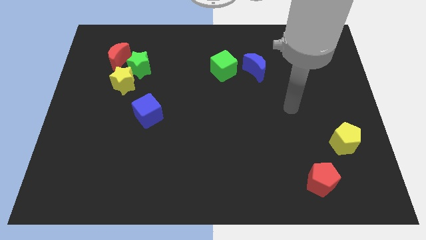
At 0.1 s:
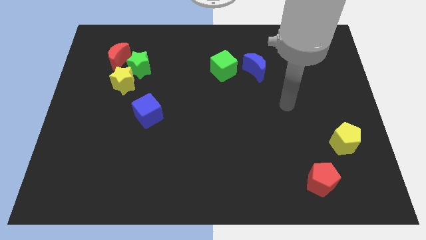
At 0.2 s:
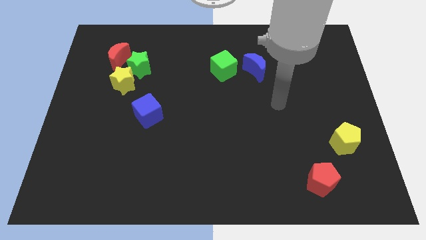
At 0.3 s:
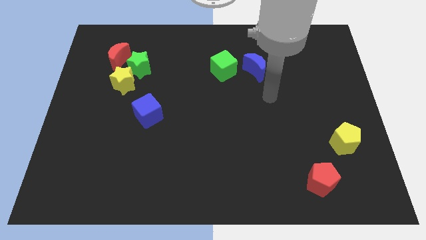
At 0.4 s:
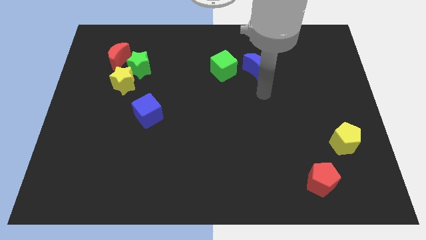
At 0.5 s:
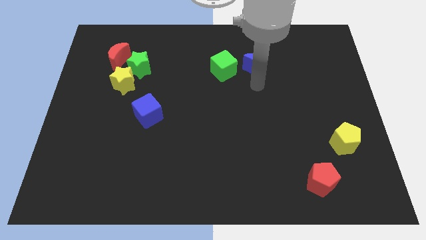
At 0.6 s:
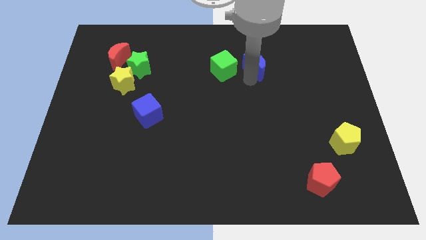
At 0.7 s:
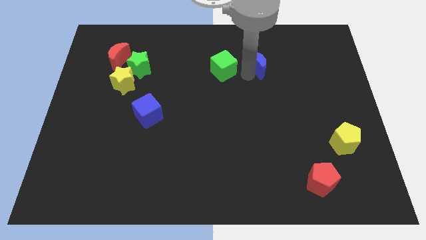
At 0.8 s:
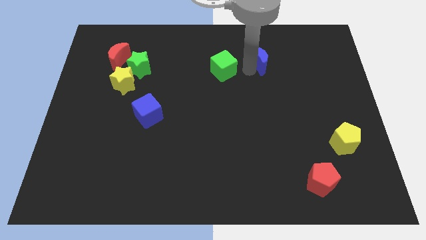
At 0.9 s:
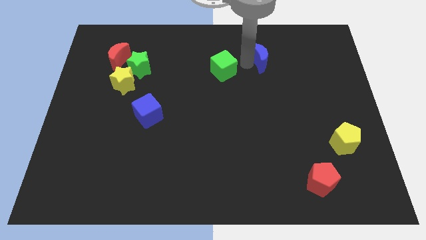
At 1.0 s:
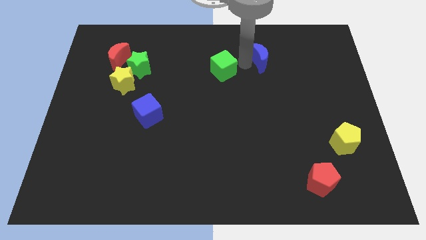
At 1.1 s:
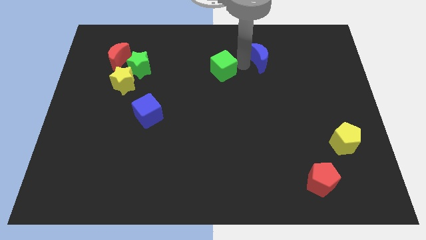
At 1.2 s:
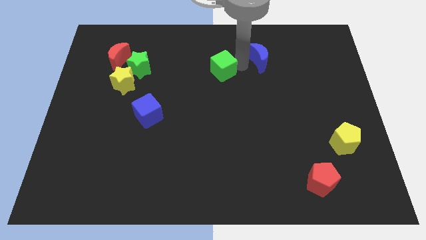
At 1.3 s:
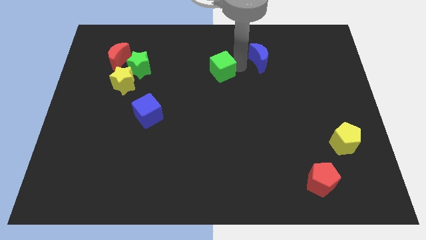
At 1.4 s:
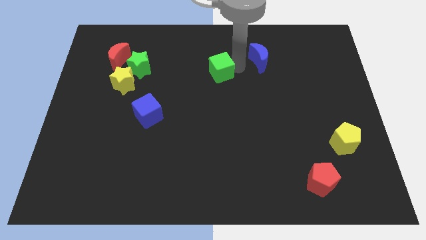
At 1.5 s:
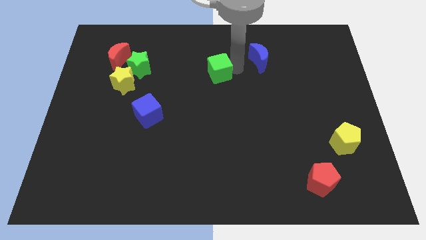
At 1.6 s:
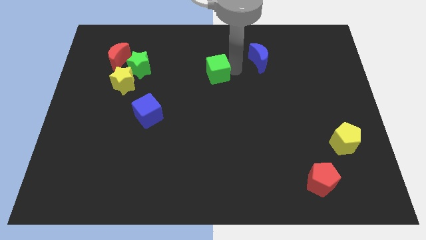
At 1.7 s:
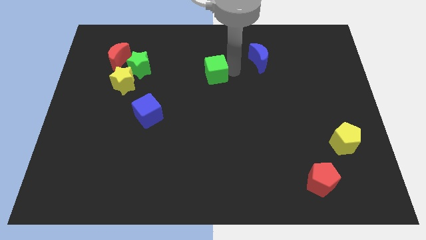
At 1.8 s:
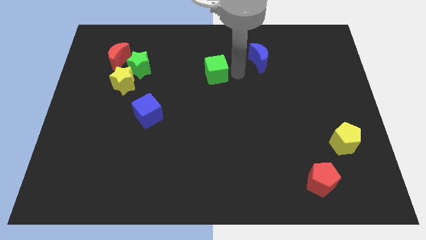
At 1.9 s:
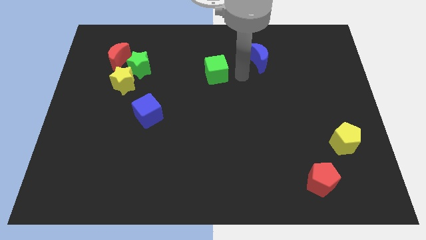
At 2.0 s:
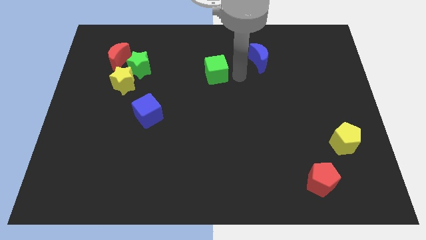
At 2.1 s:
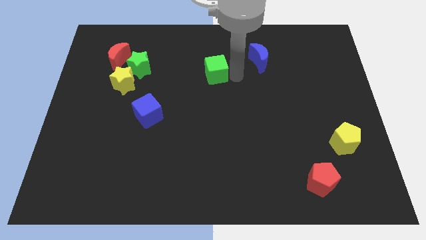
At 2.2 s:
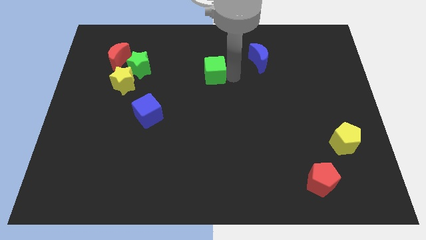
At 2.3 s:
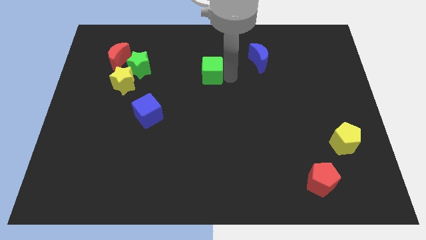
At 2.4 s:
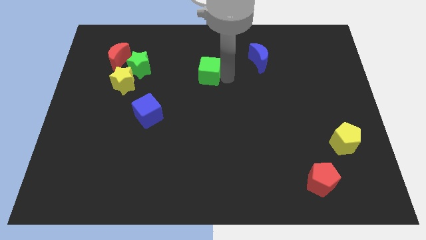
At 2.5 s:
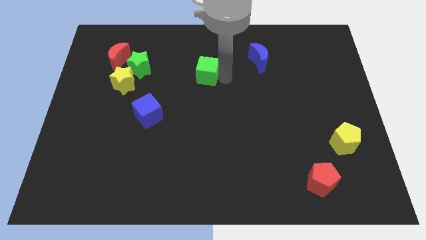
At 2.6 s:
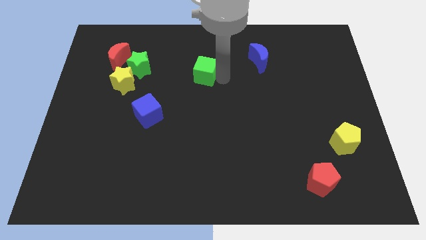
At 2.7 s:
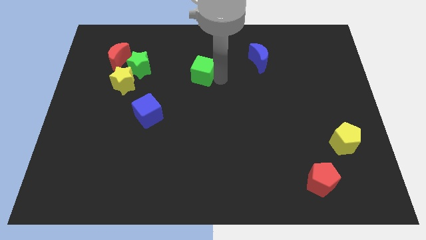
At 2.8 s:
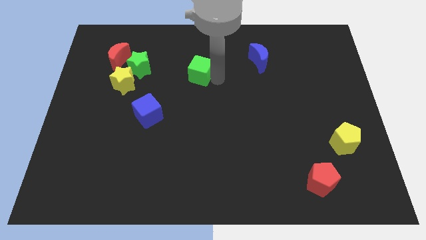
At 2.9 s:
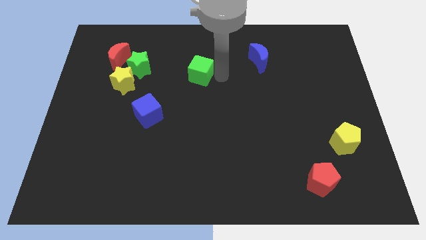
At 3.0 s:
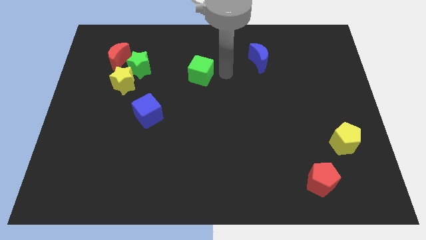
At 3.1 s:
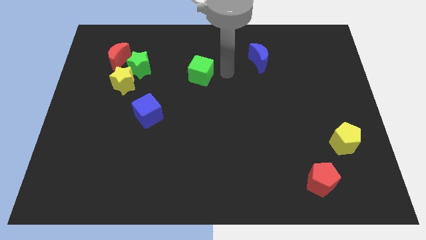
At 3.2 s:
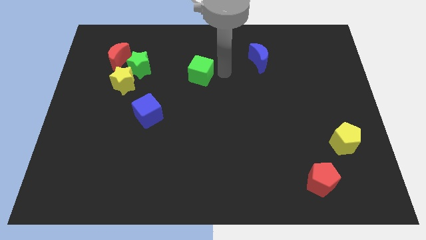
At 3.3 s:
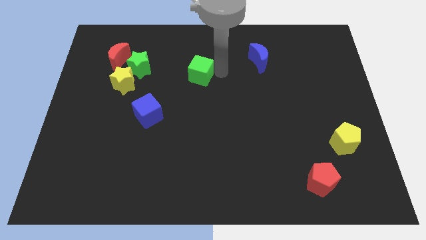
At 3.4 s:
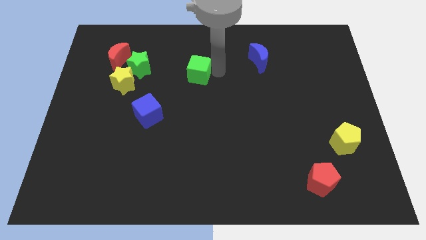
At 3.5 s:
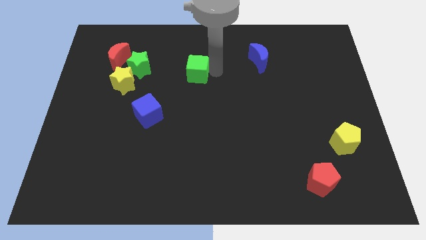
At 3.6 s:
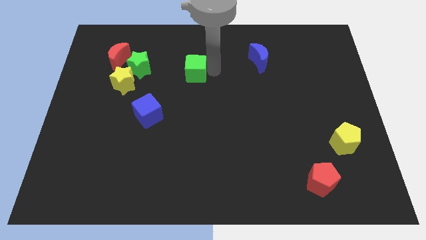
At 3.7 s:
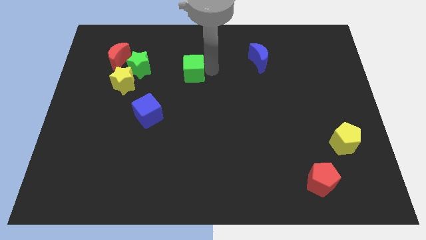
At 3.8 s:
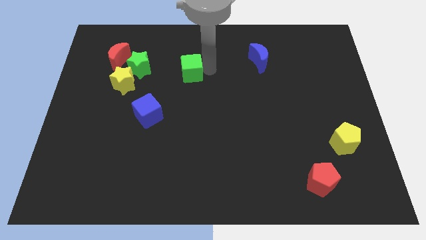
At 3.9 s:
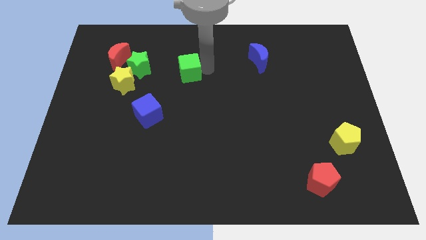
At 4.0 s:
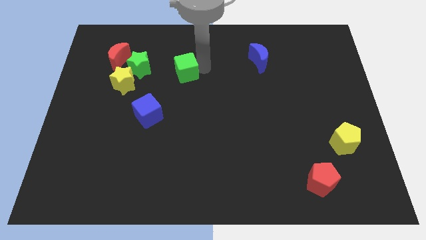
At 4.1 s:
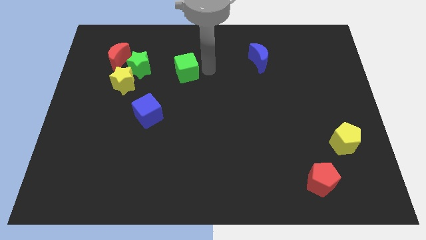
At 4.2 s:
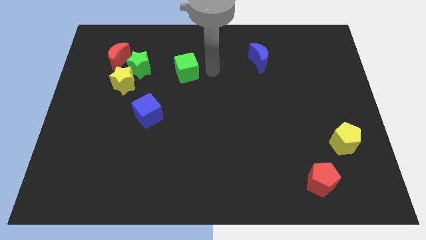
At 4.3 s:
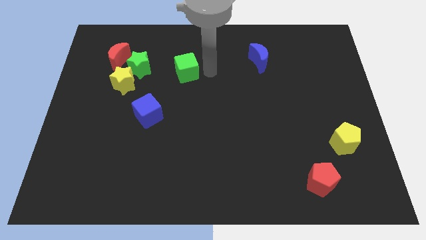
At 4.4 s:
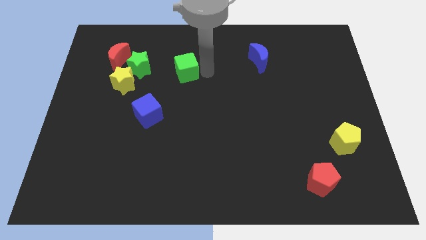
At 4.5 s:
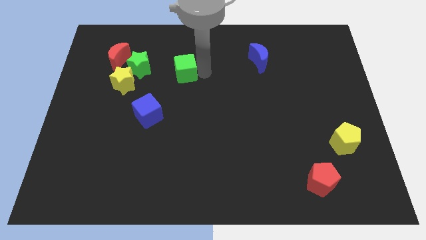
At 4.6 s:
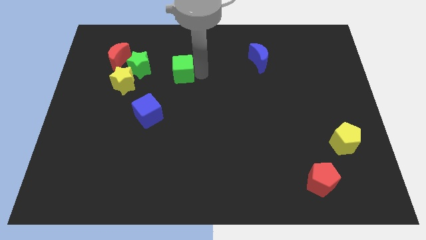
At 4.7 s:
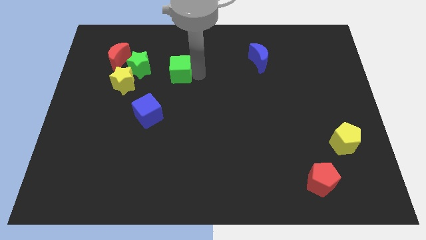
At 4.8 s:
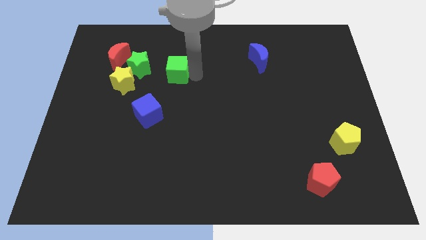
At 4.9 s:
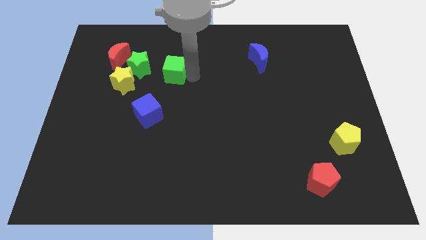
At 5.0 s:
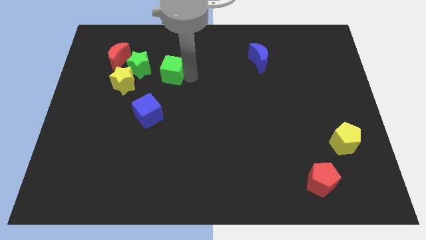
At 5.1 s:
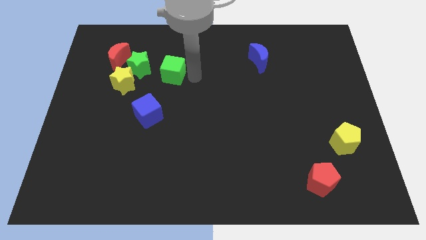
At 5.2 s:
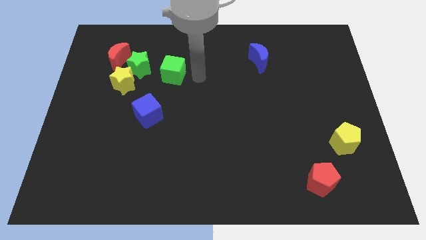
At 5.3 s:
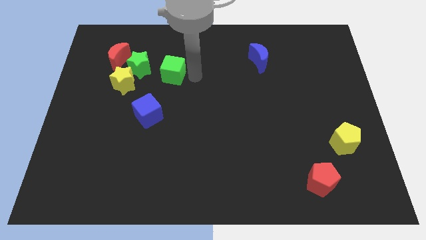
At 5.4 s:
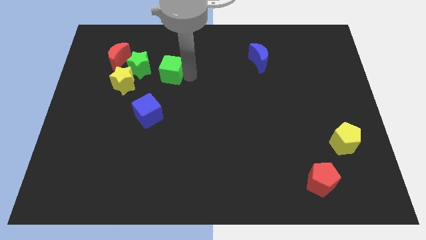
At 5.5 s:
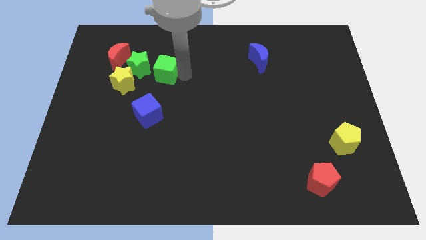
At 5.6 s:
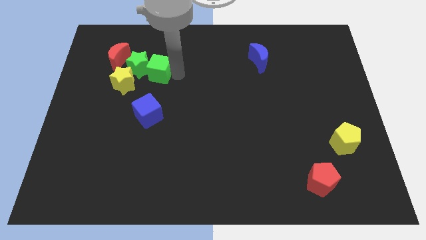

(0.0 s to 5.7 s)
push the green cube towards the green star
